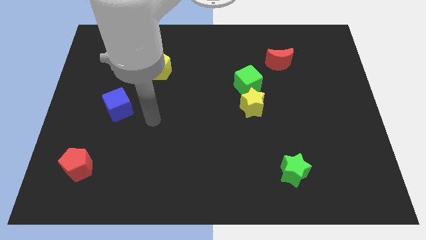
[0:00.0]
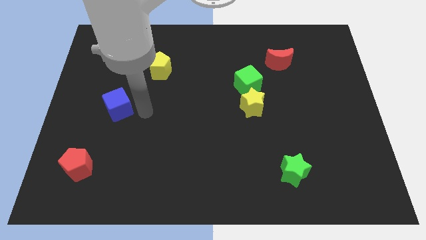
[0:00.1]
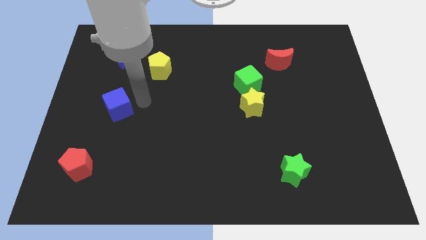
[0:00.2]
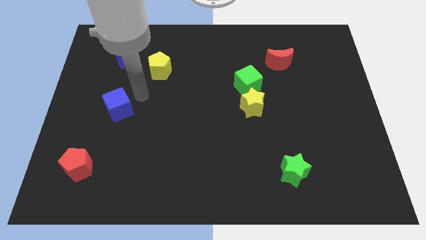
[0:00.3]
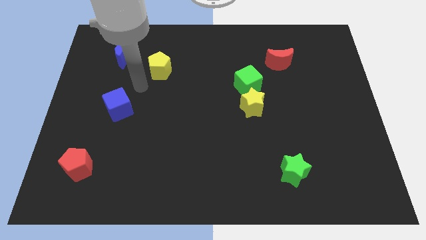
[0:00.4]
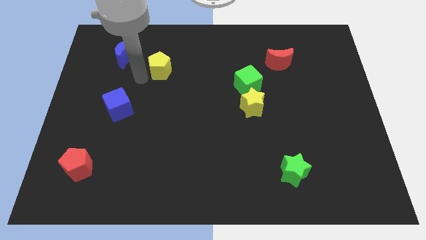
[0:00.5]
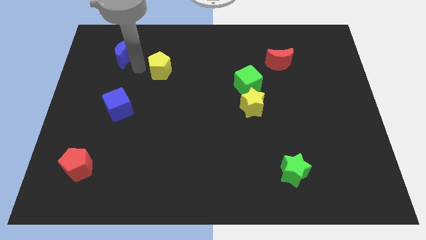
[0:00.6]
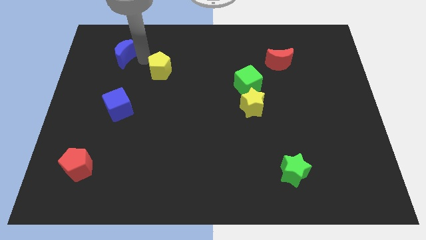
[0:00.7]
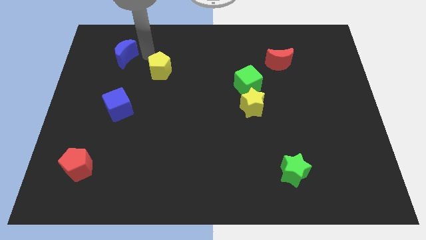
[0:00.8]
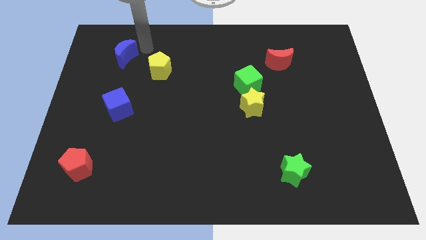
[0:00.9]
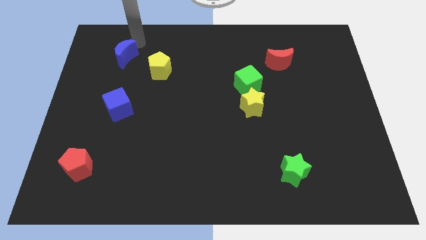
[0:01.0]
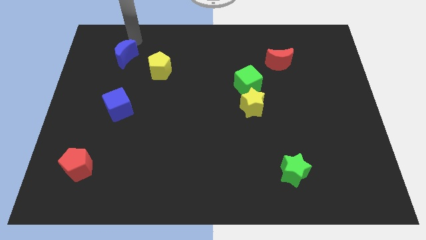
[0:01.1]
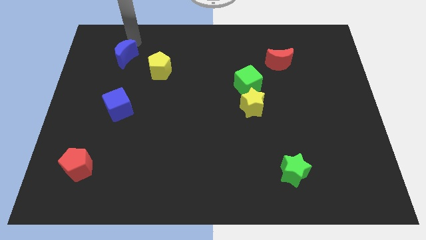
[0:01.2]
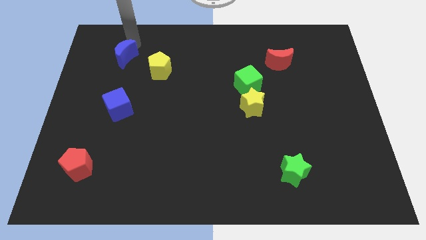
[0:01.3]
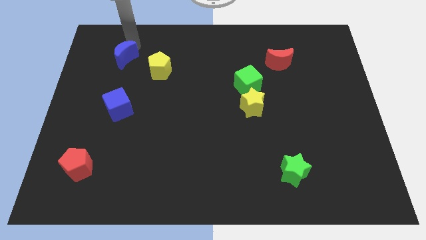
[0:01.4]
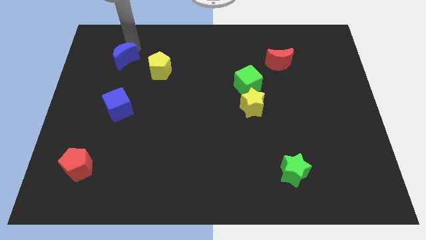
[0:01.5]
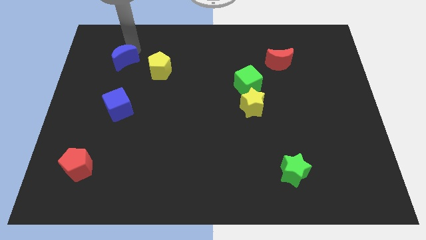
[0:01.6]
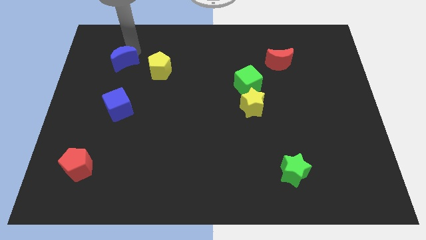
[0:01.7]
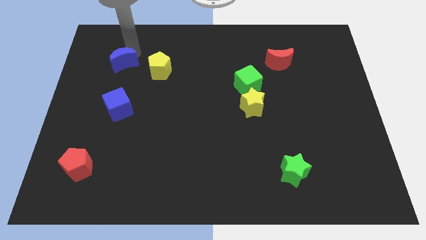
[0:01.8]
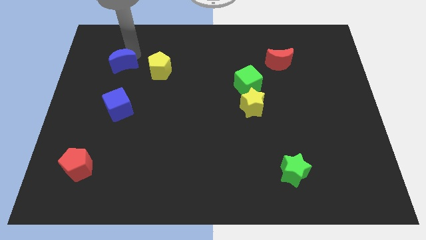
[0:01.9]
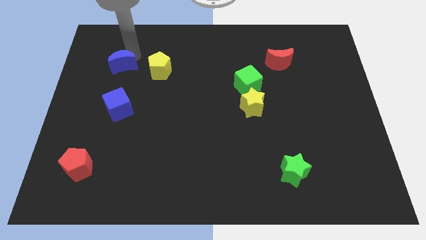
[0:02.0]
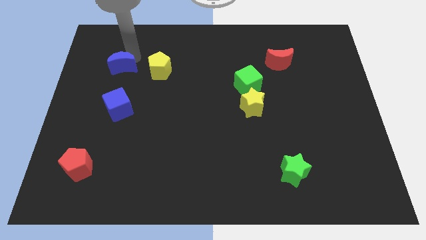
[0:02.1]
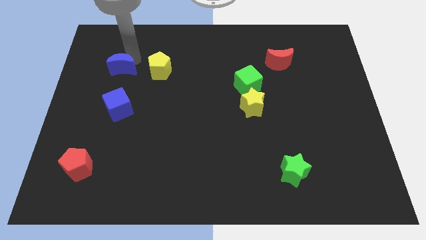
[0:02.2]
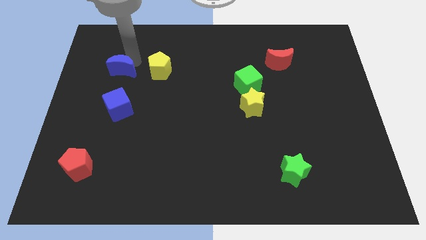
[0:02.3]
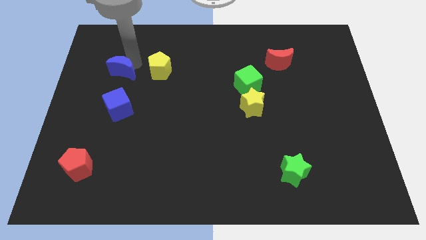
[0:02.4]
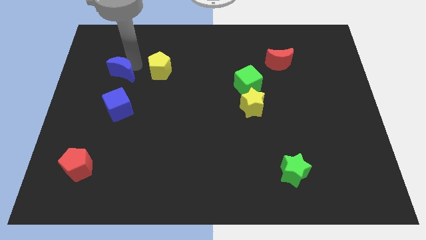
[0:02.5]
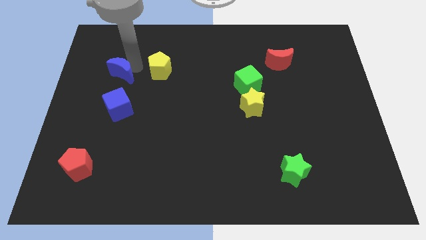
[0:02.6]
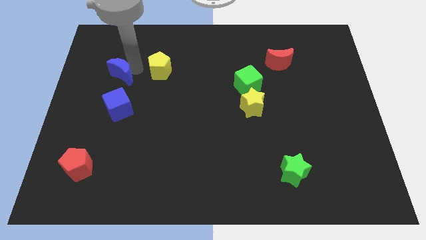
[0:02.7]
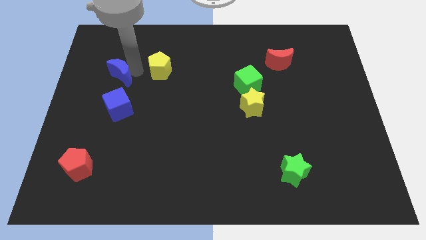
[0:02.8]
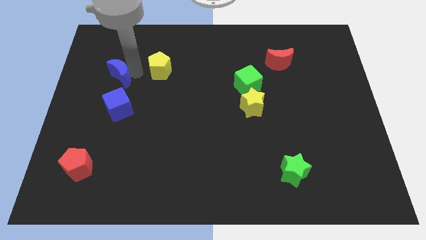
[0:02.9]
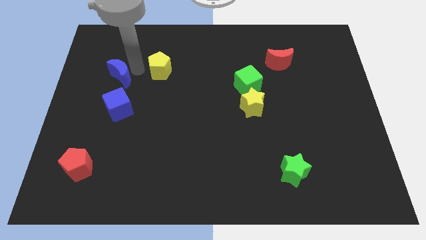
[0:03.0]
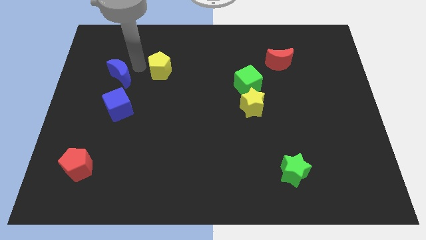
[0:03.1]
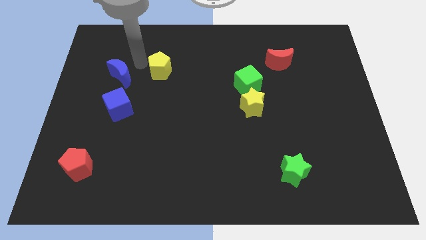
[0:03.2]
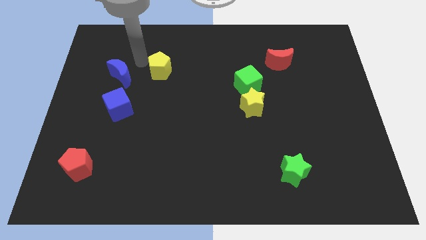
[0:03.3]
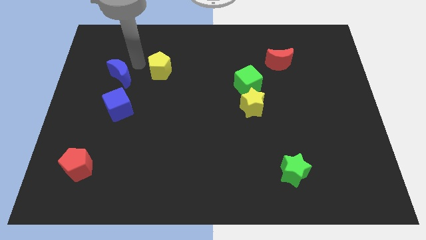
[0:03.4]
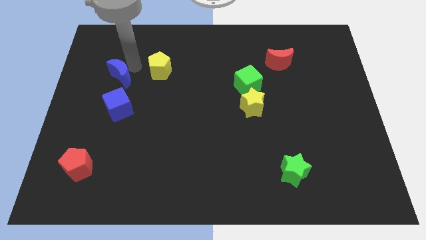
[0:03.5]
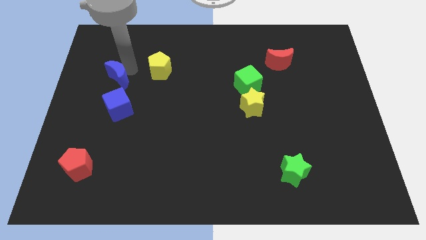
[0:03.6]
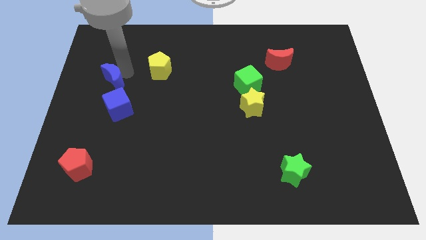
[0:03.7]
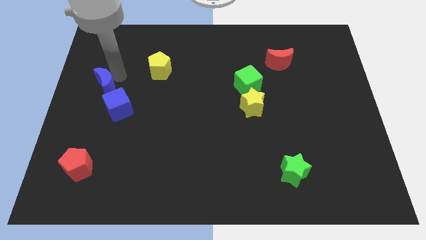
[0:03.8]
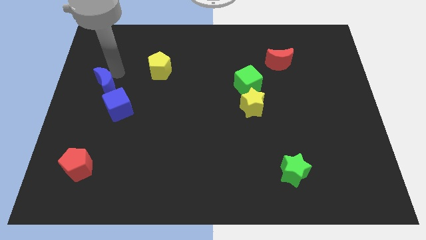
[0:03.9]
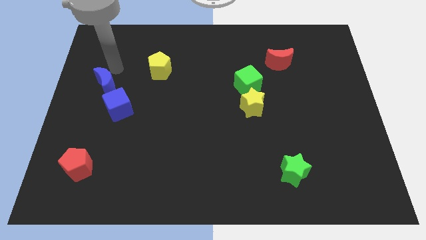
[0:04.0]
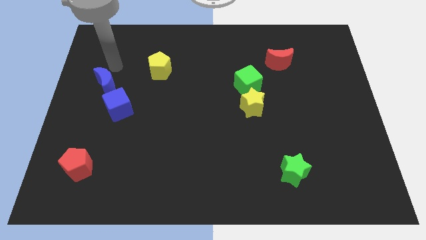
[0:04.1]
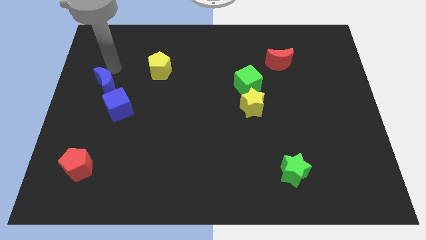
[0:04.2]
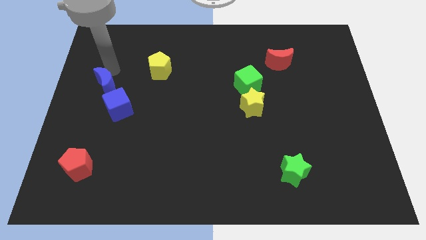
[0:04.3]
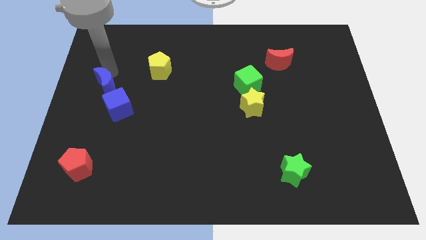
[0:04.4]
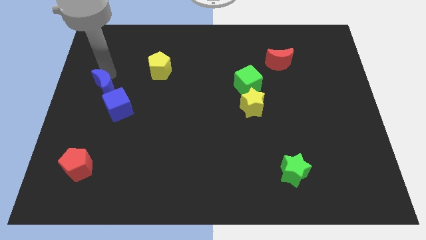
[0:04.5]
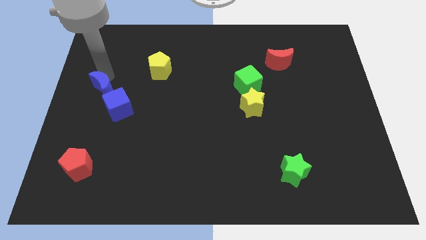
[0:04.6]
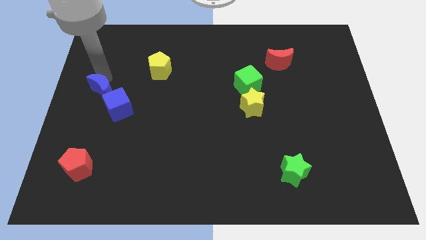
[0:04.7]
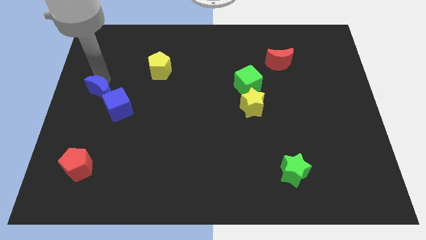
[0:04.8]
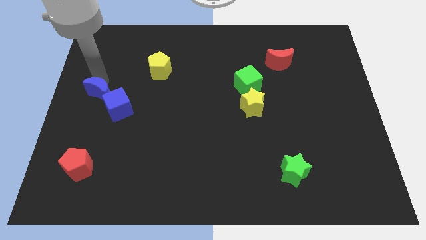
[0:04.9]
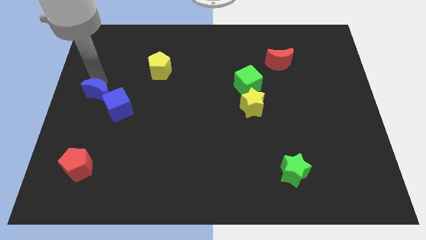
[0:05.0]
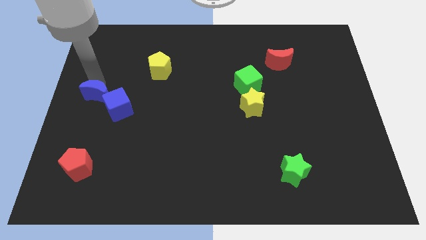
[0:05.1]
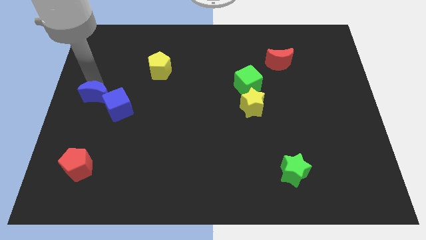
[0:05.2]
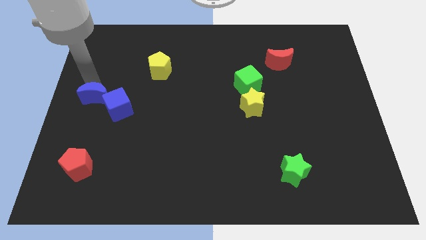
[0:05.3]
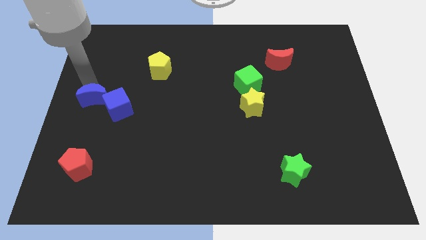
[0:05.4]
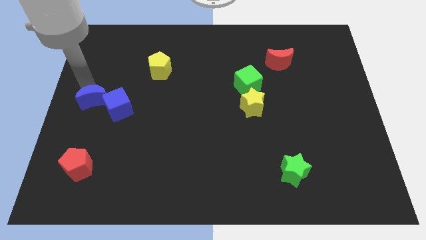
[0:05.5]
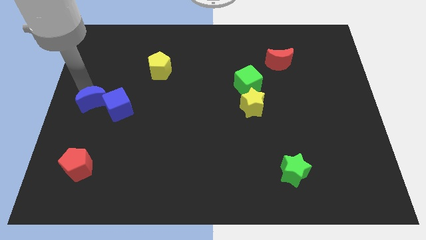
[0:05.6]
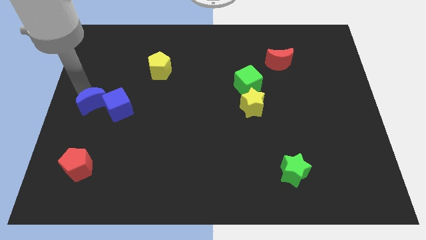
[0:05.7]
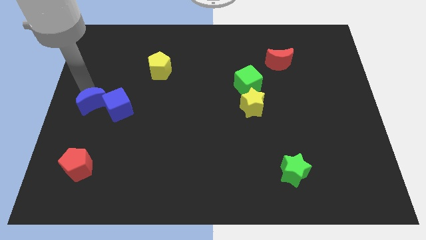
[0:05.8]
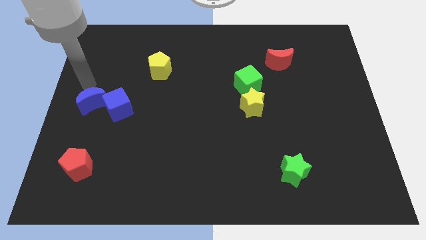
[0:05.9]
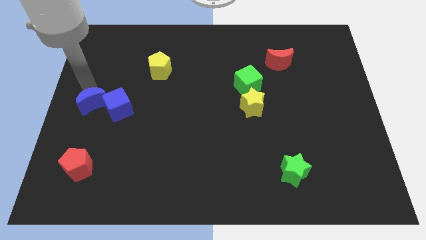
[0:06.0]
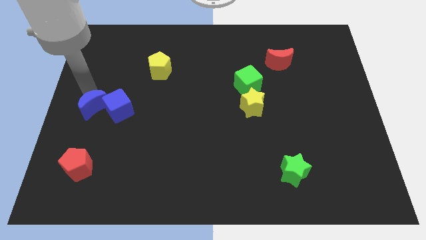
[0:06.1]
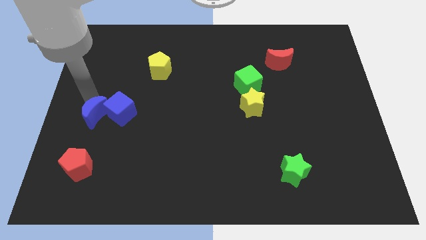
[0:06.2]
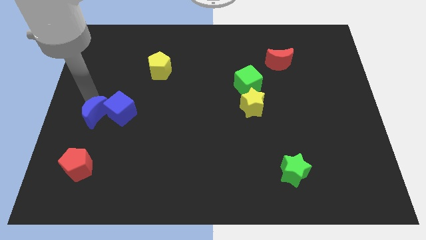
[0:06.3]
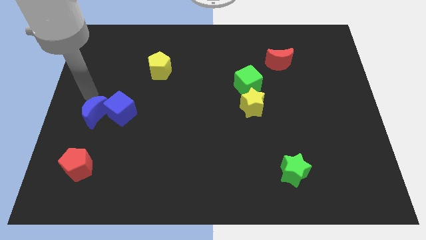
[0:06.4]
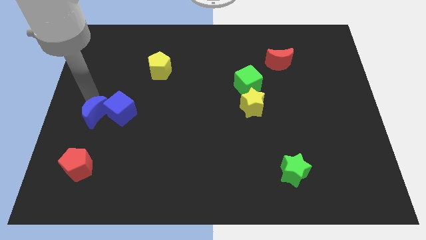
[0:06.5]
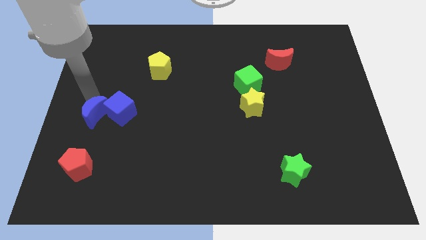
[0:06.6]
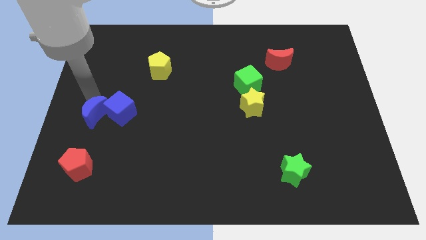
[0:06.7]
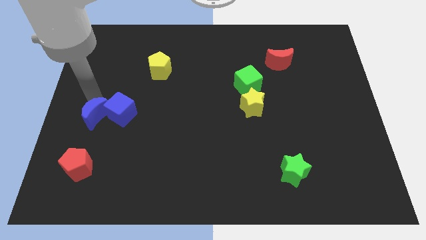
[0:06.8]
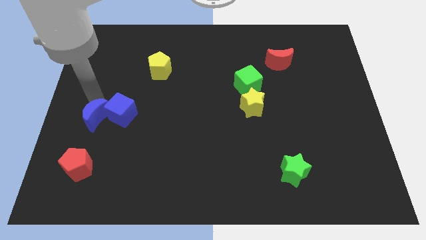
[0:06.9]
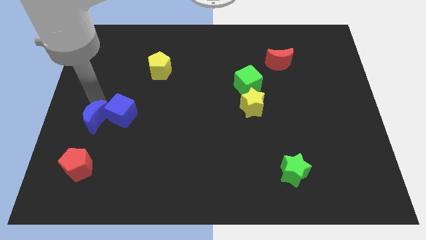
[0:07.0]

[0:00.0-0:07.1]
push the blue moon down

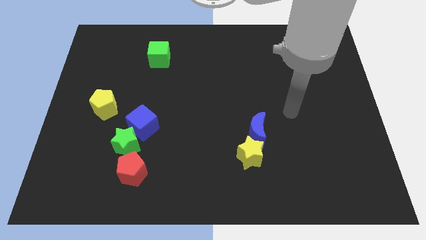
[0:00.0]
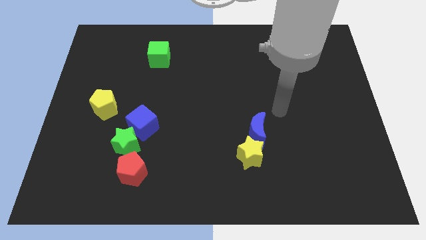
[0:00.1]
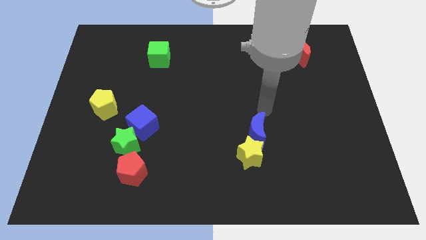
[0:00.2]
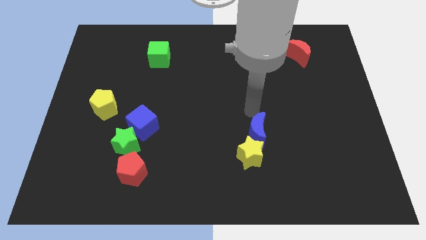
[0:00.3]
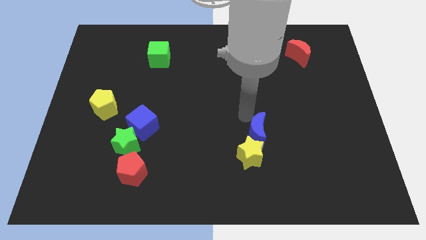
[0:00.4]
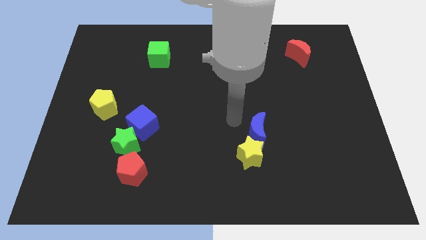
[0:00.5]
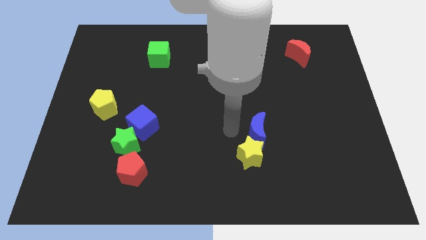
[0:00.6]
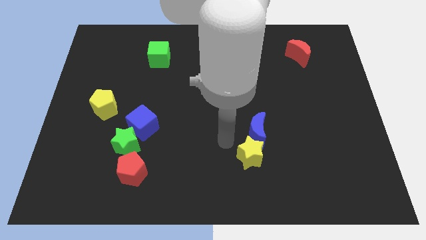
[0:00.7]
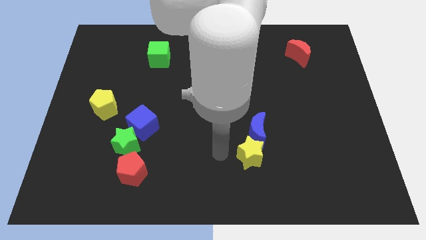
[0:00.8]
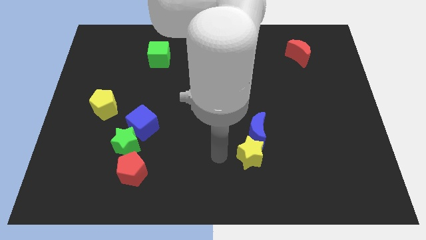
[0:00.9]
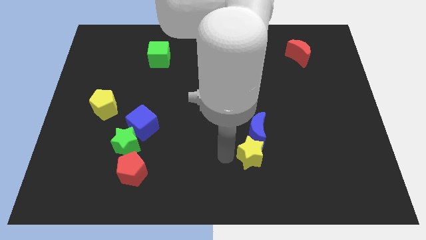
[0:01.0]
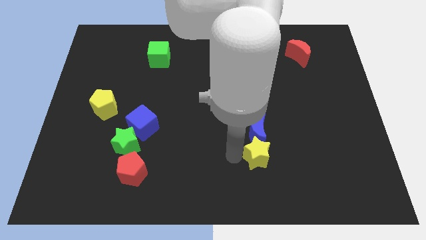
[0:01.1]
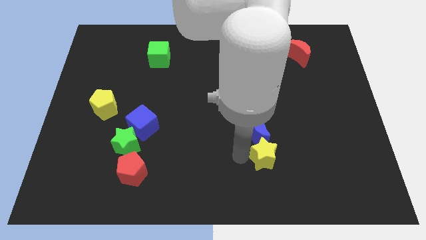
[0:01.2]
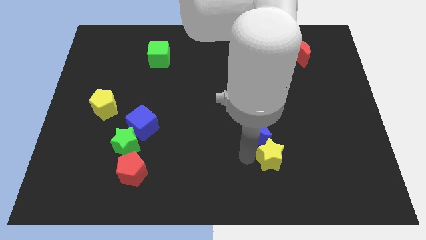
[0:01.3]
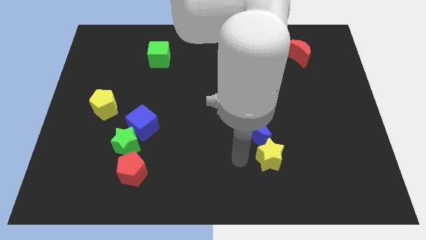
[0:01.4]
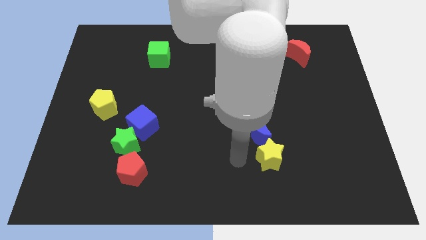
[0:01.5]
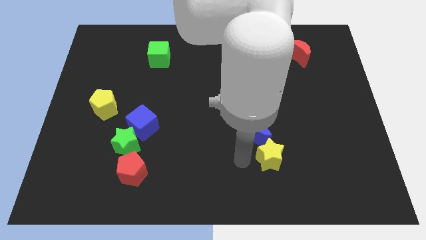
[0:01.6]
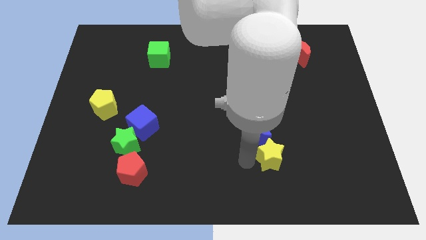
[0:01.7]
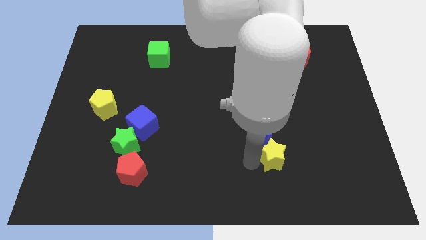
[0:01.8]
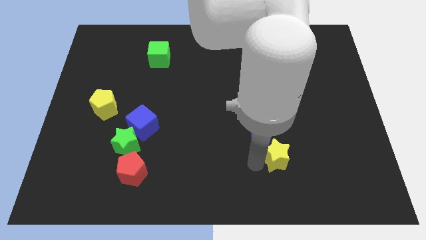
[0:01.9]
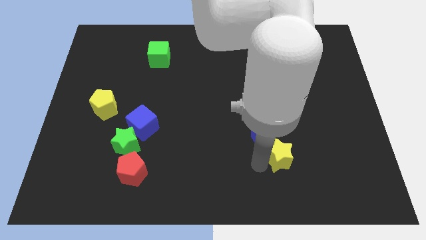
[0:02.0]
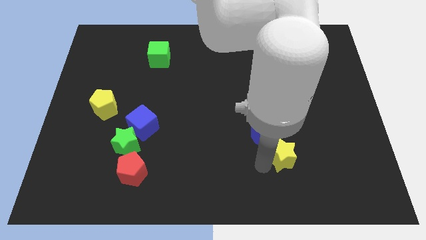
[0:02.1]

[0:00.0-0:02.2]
slide the yellow star somewhat right
